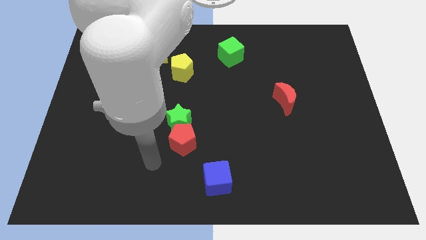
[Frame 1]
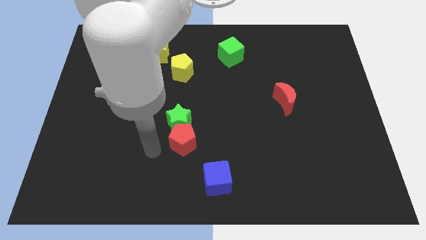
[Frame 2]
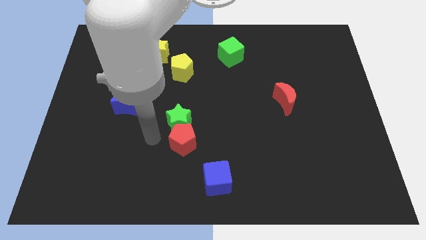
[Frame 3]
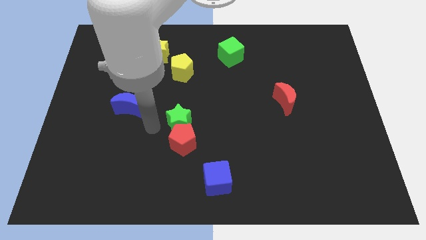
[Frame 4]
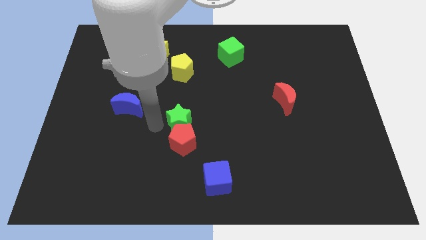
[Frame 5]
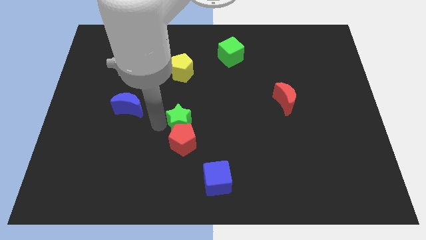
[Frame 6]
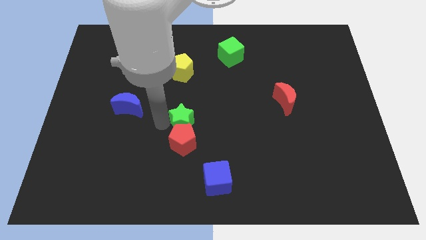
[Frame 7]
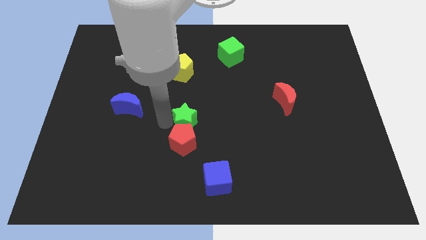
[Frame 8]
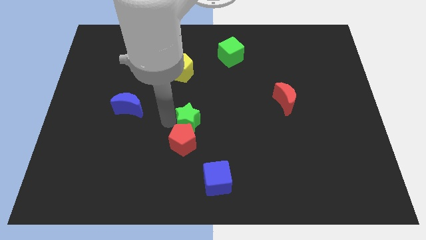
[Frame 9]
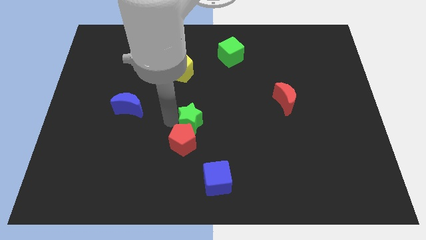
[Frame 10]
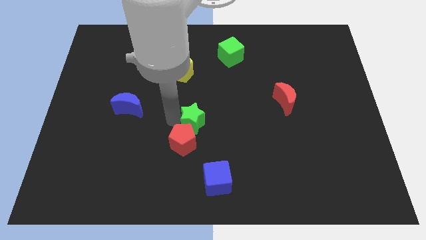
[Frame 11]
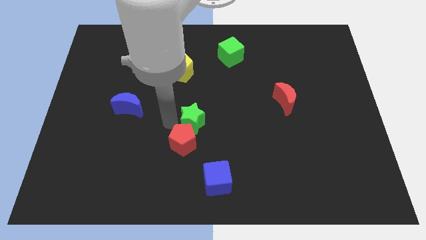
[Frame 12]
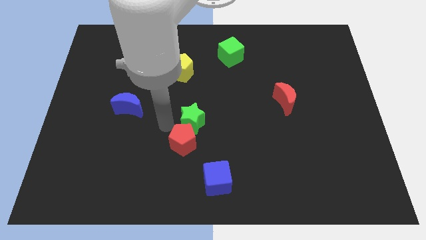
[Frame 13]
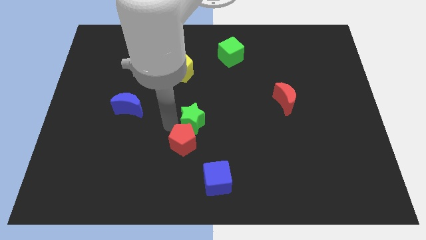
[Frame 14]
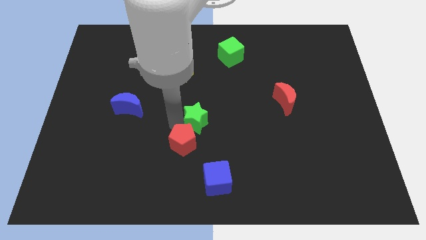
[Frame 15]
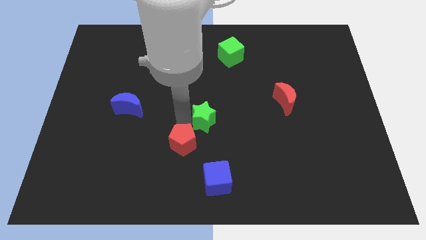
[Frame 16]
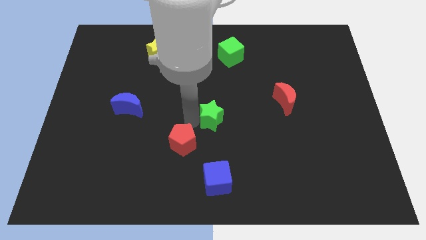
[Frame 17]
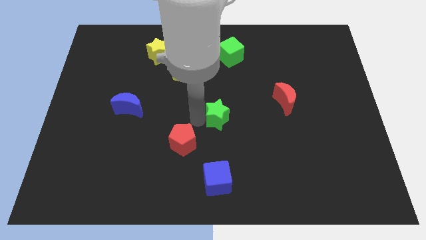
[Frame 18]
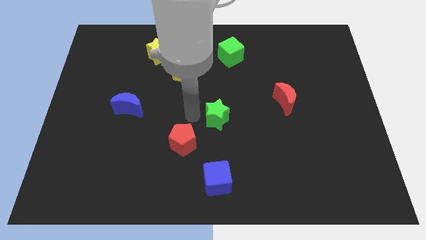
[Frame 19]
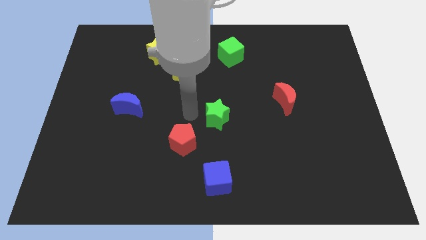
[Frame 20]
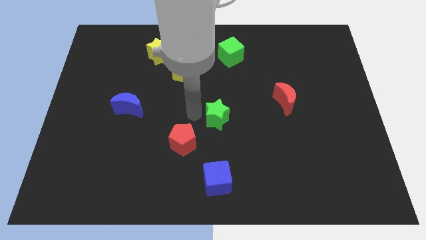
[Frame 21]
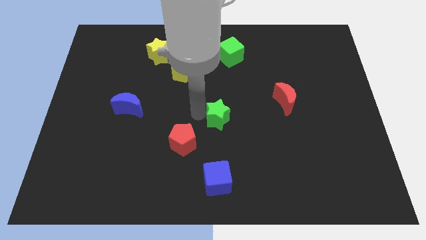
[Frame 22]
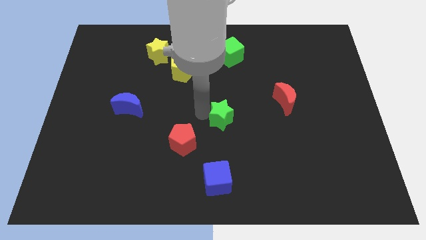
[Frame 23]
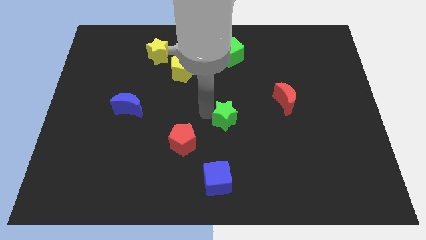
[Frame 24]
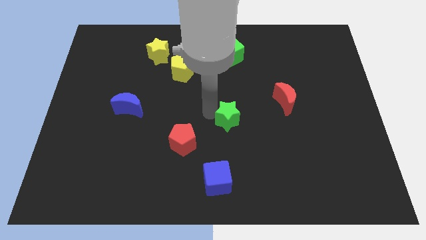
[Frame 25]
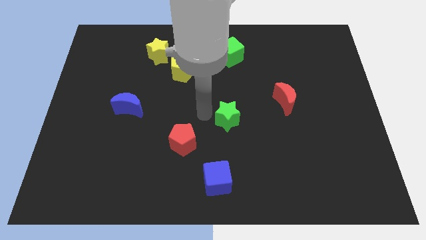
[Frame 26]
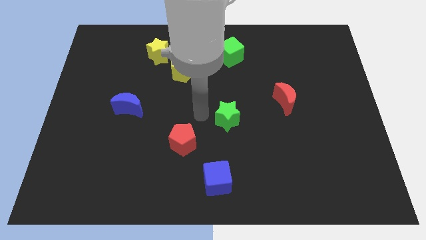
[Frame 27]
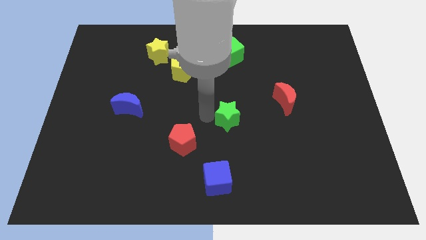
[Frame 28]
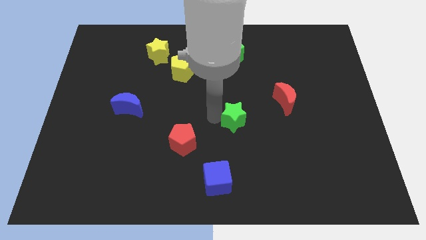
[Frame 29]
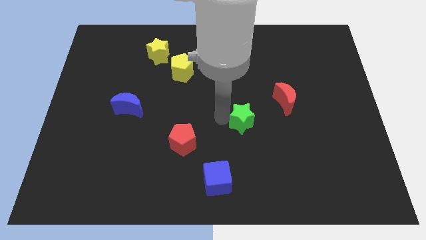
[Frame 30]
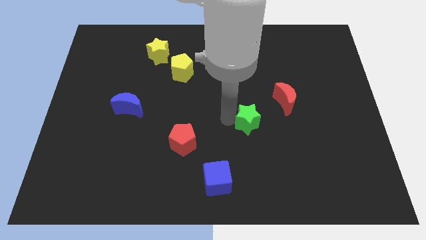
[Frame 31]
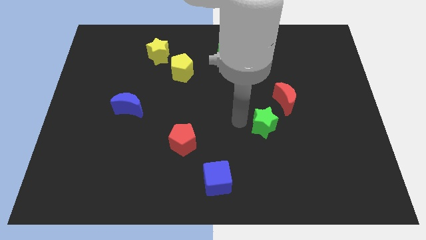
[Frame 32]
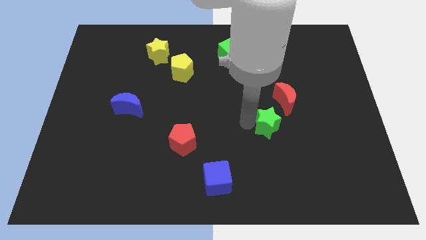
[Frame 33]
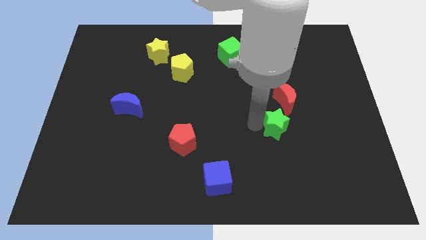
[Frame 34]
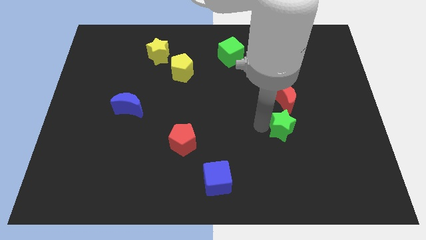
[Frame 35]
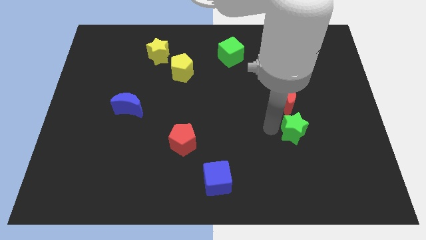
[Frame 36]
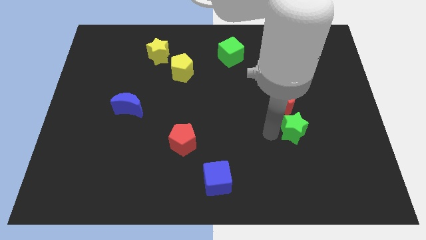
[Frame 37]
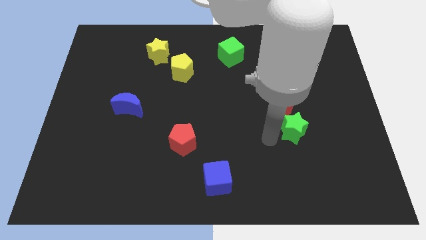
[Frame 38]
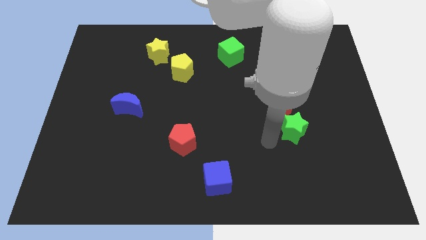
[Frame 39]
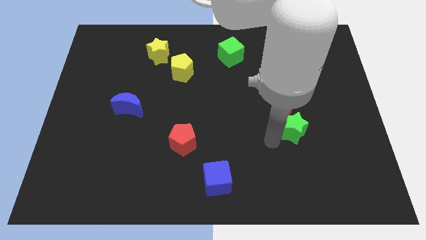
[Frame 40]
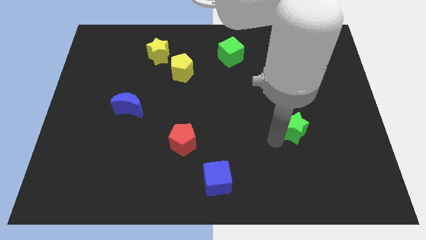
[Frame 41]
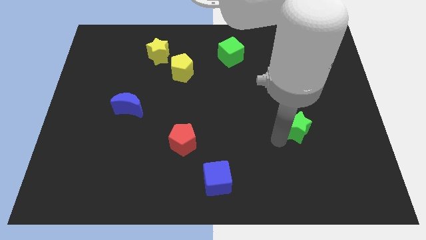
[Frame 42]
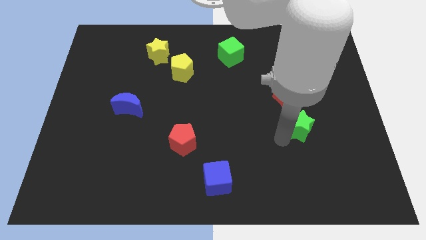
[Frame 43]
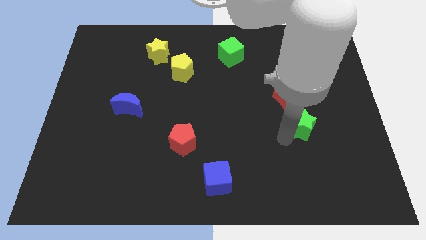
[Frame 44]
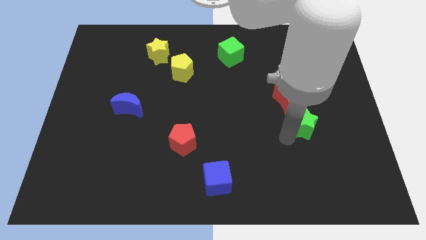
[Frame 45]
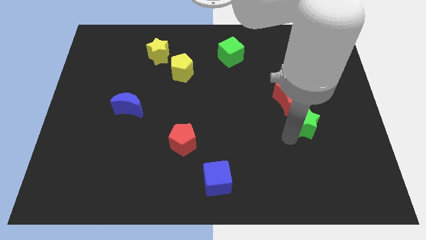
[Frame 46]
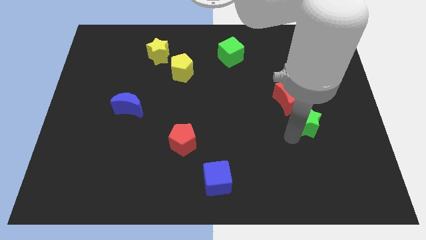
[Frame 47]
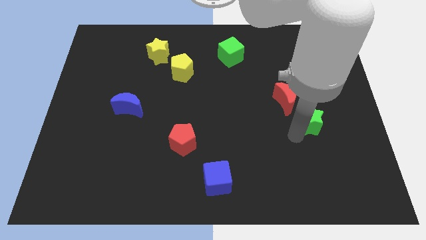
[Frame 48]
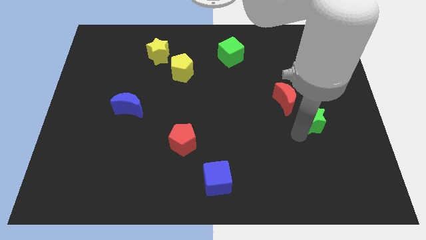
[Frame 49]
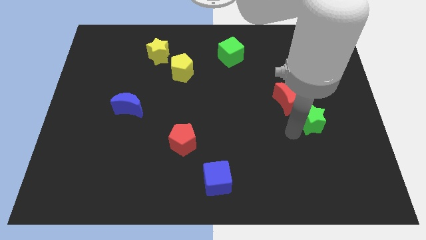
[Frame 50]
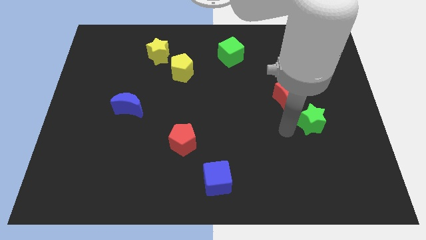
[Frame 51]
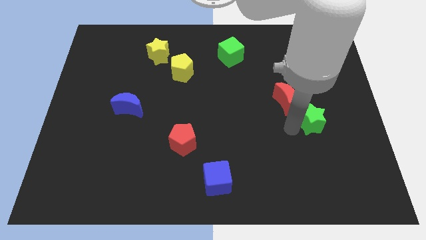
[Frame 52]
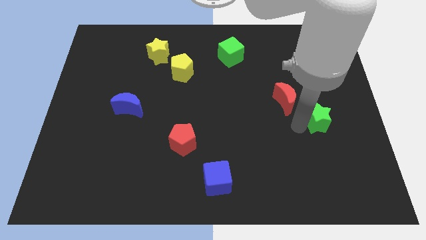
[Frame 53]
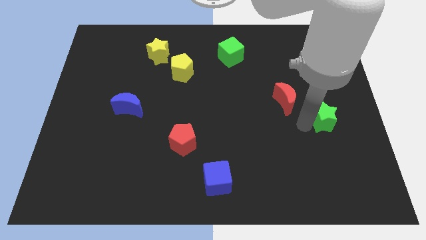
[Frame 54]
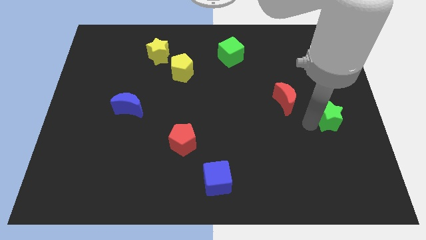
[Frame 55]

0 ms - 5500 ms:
put the green star to the right side

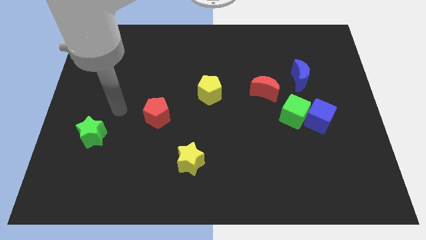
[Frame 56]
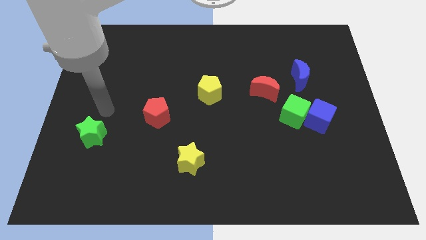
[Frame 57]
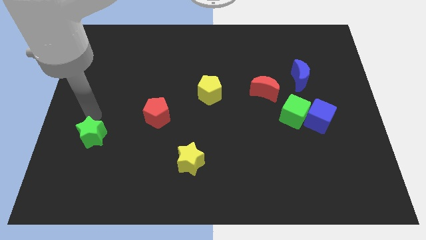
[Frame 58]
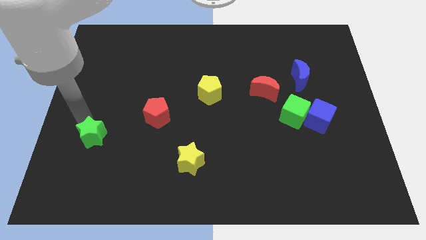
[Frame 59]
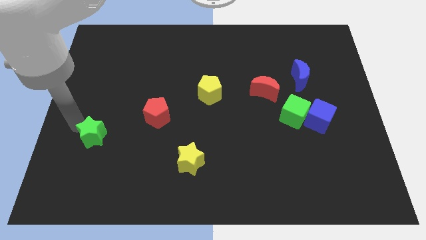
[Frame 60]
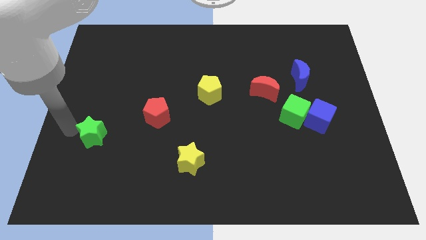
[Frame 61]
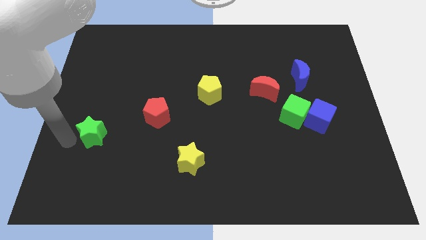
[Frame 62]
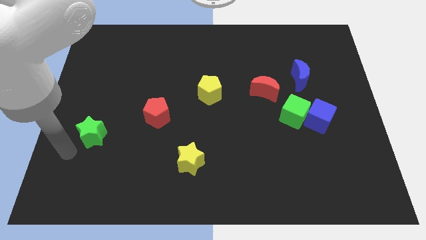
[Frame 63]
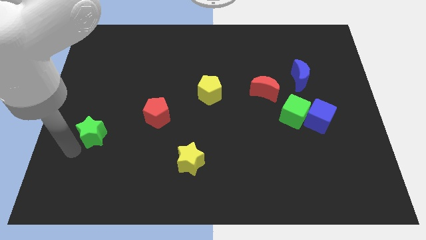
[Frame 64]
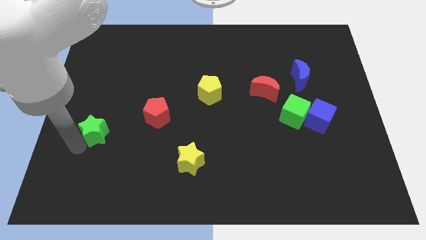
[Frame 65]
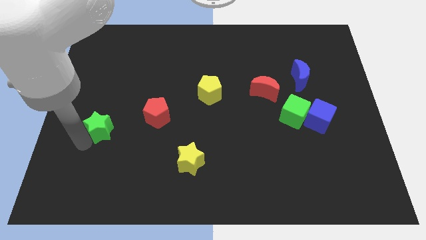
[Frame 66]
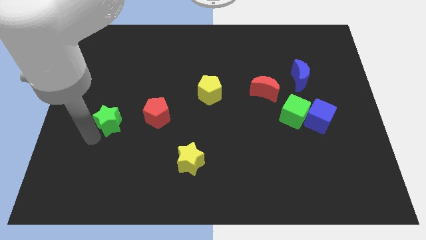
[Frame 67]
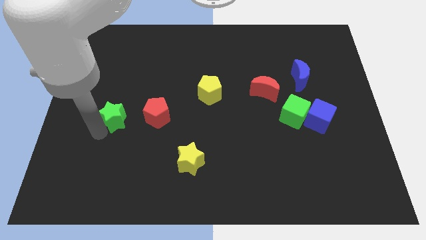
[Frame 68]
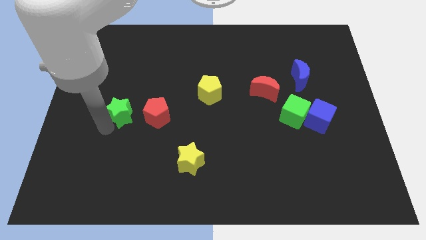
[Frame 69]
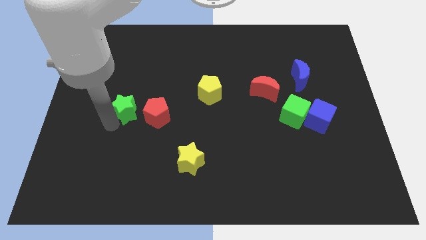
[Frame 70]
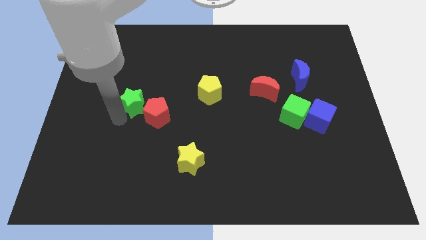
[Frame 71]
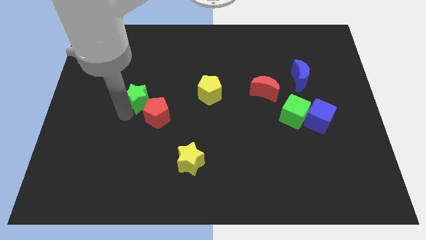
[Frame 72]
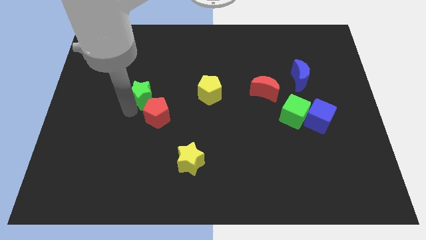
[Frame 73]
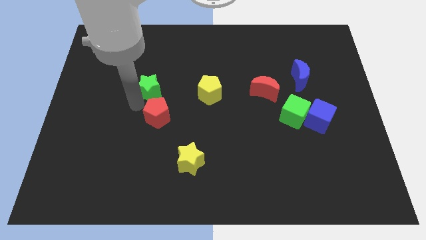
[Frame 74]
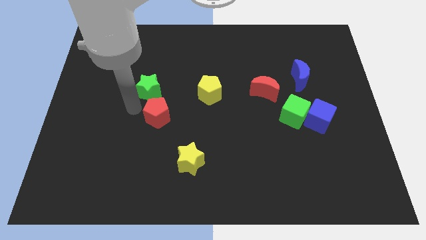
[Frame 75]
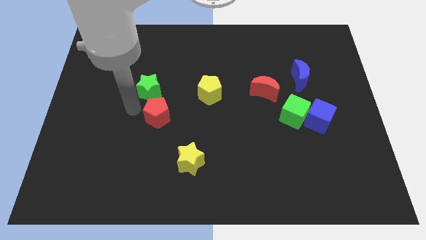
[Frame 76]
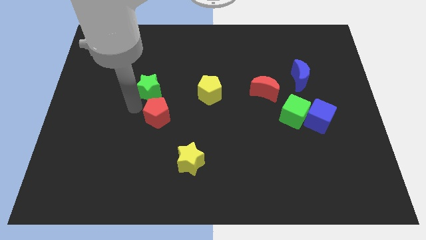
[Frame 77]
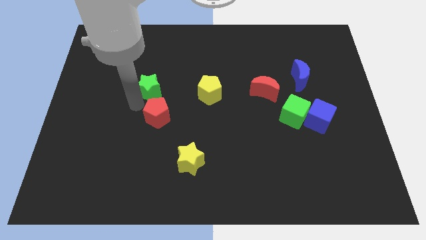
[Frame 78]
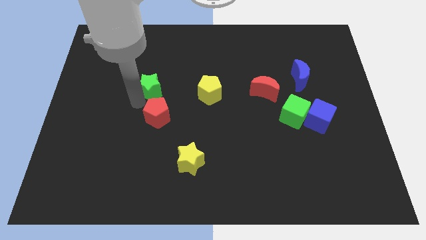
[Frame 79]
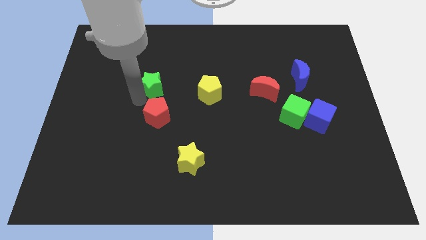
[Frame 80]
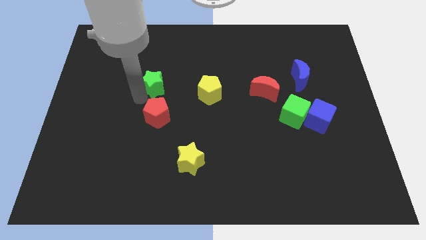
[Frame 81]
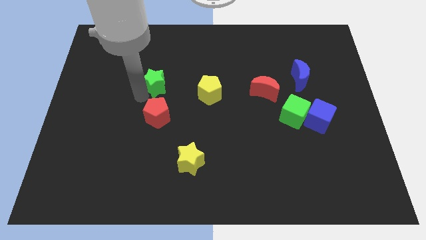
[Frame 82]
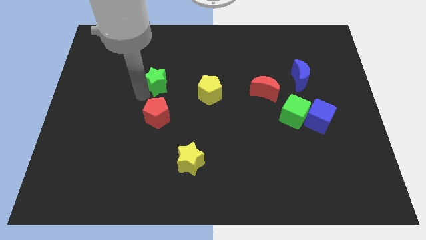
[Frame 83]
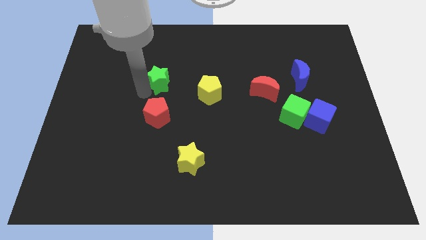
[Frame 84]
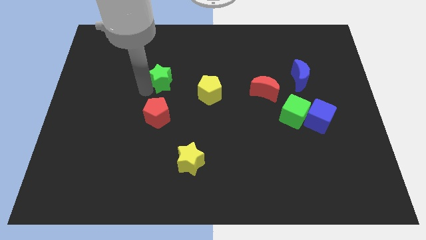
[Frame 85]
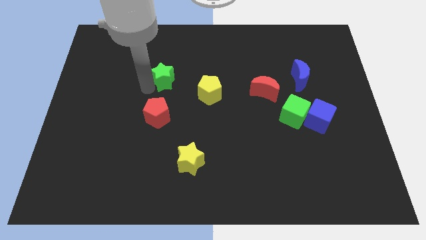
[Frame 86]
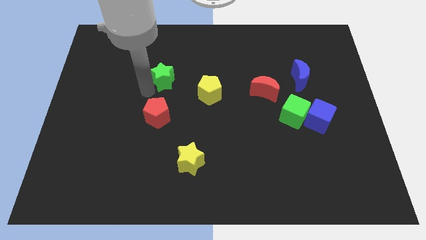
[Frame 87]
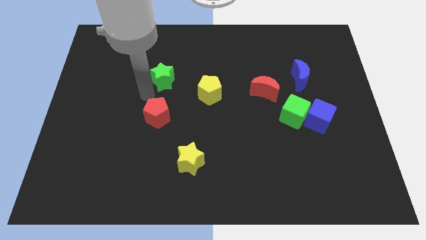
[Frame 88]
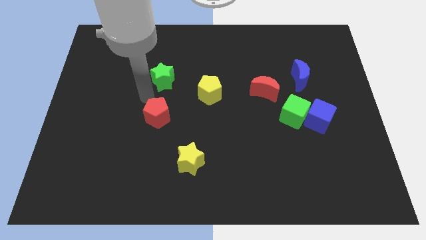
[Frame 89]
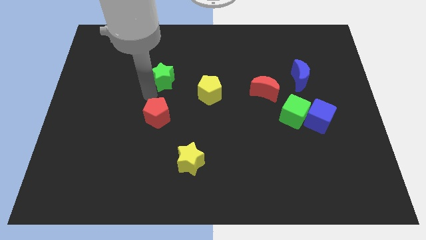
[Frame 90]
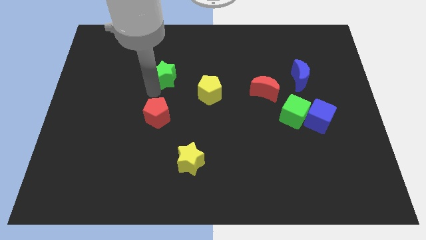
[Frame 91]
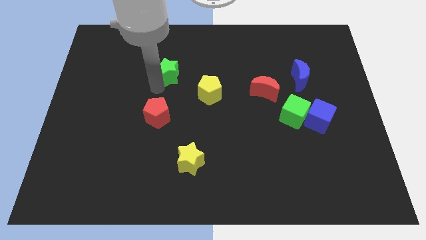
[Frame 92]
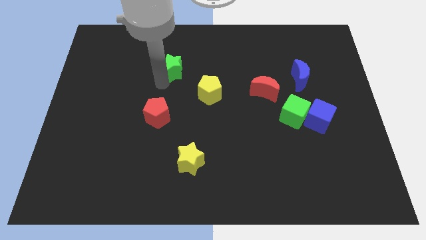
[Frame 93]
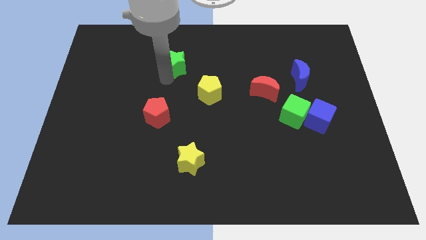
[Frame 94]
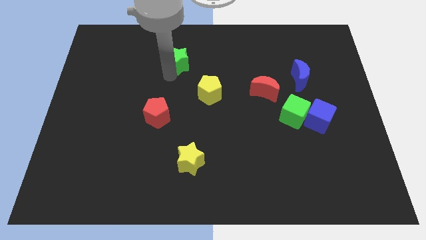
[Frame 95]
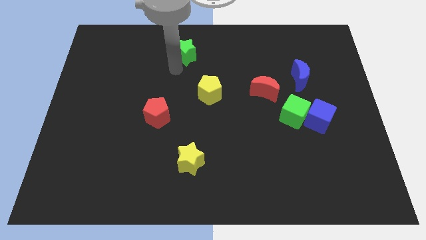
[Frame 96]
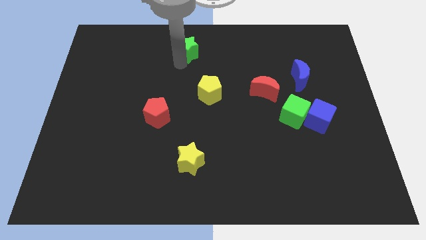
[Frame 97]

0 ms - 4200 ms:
move the green star to the top side
